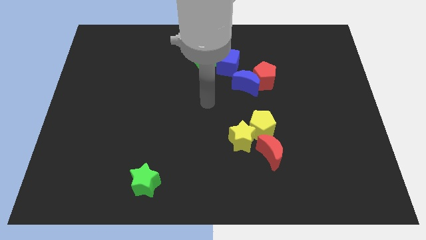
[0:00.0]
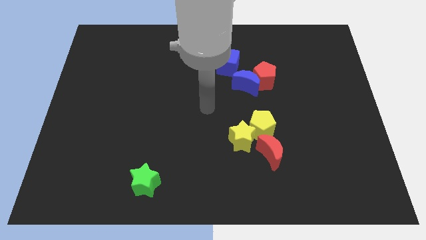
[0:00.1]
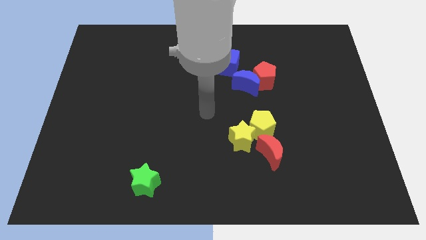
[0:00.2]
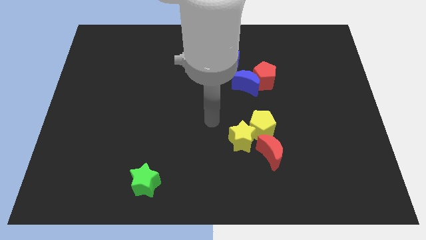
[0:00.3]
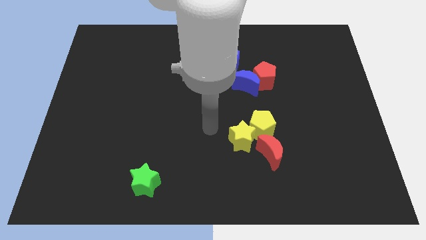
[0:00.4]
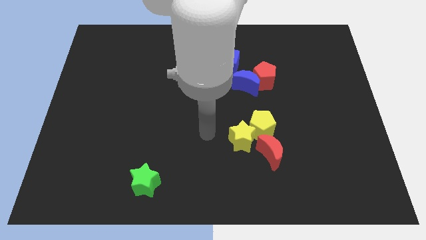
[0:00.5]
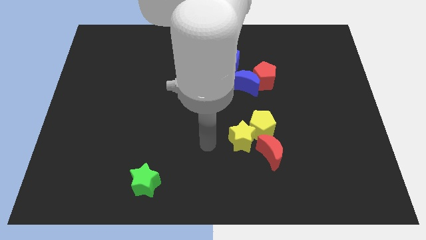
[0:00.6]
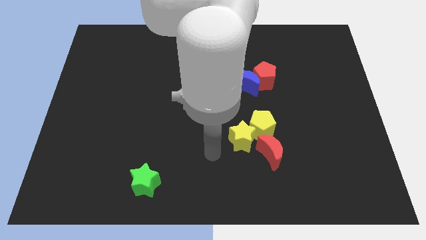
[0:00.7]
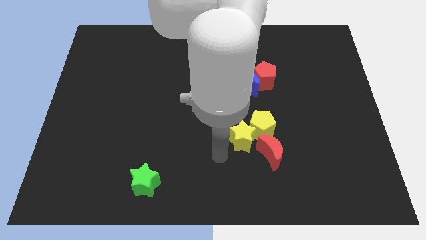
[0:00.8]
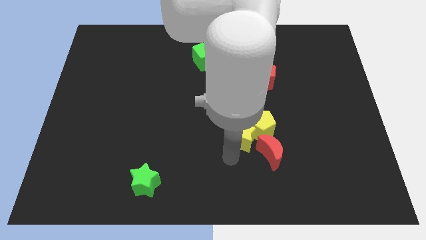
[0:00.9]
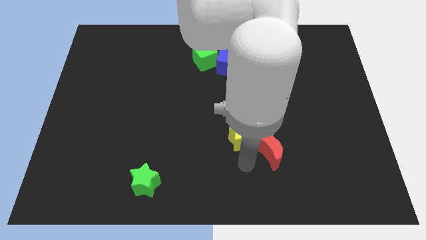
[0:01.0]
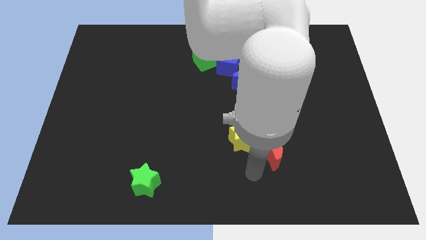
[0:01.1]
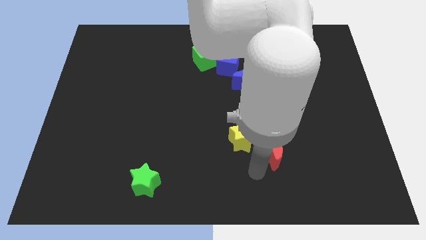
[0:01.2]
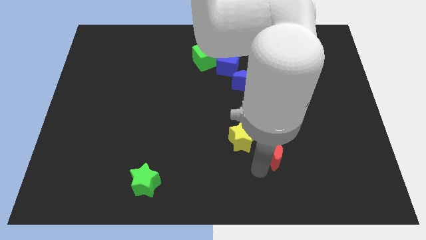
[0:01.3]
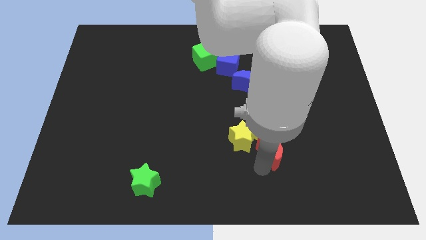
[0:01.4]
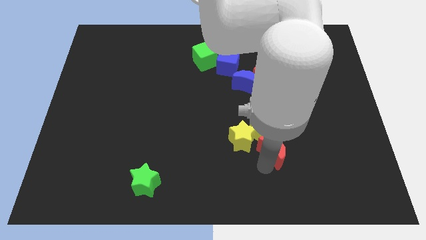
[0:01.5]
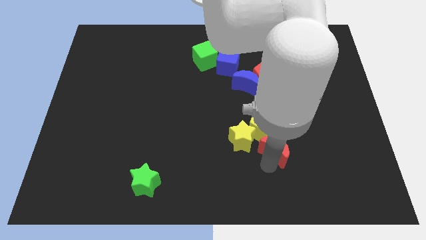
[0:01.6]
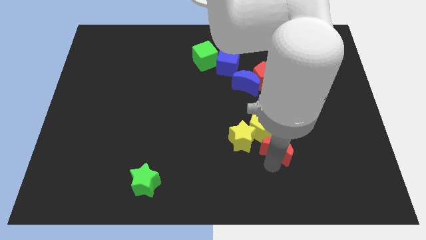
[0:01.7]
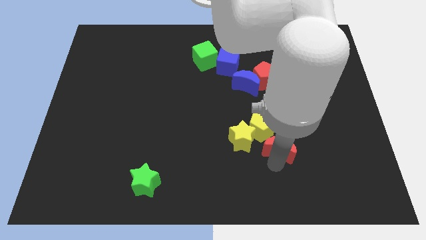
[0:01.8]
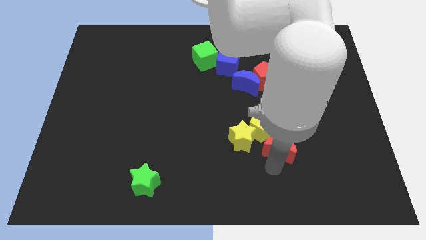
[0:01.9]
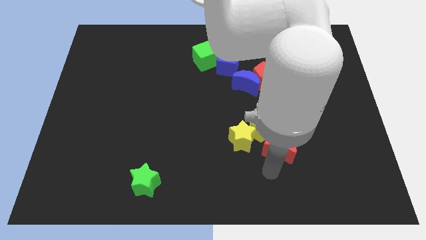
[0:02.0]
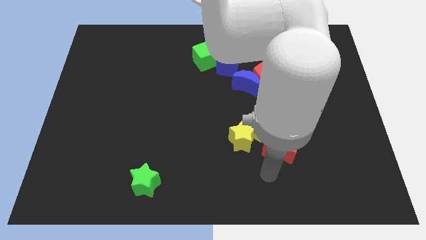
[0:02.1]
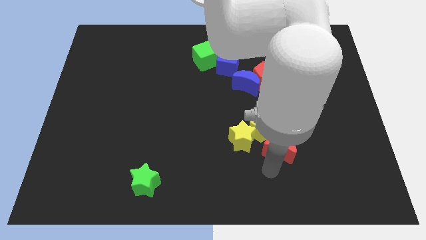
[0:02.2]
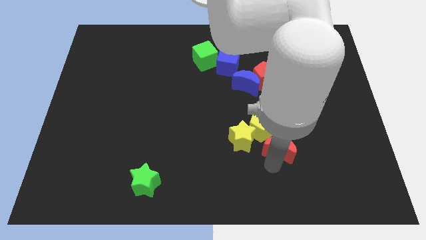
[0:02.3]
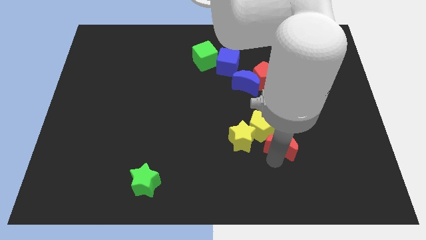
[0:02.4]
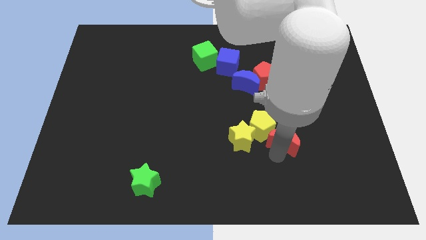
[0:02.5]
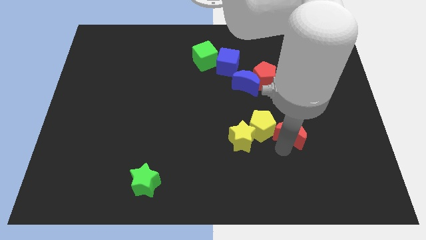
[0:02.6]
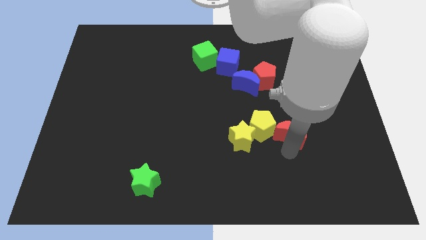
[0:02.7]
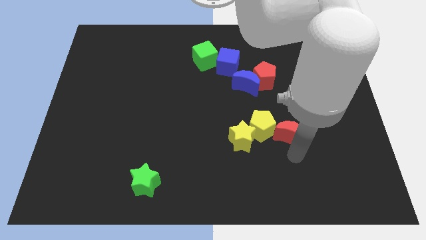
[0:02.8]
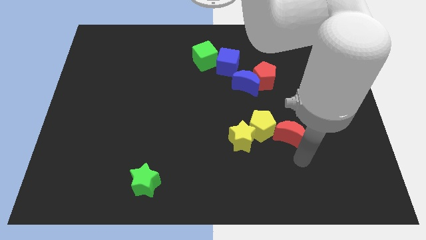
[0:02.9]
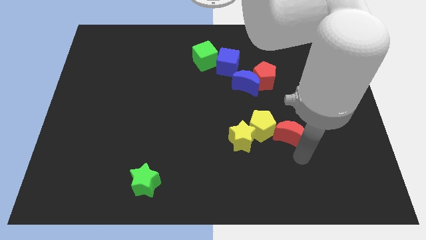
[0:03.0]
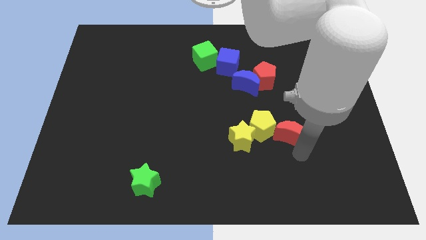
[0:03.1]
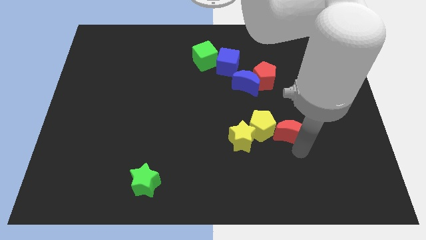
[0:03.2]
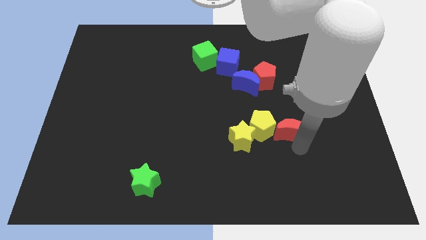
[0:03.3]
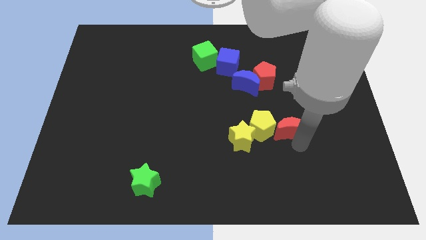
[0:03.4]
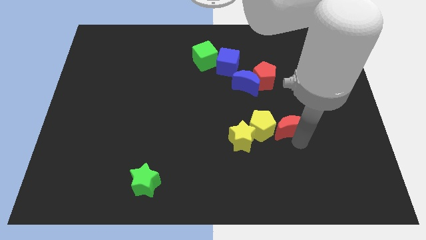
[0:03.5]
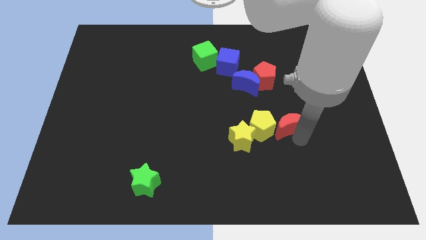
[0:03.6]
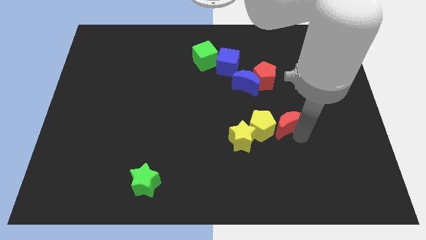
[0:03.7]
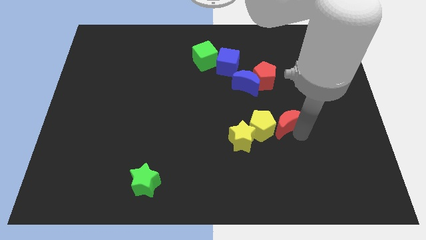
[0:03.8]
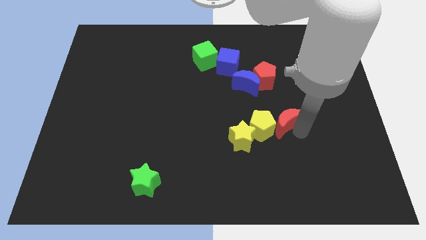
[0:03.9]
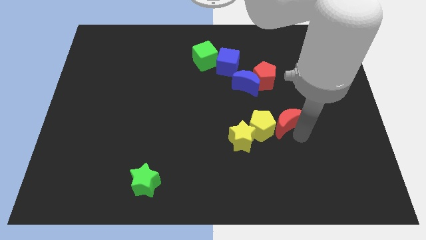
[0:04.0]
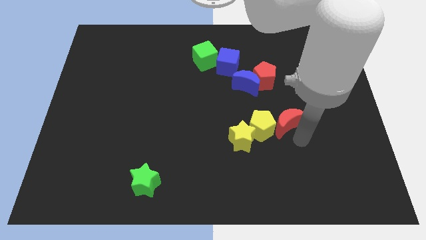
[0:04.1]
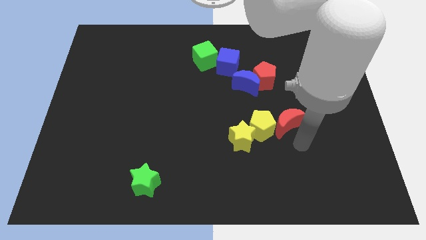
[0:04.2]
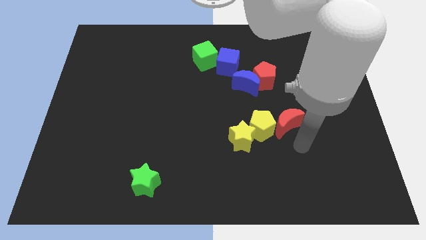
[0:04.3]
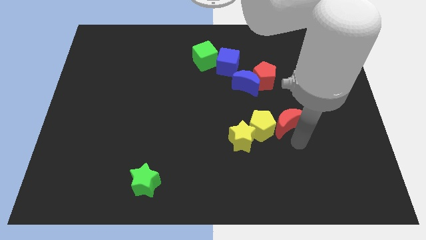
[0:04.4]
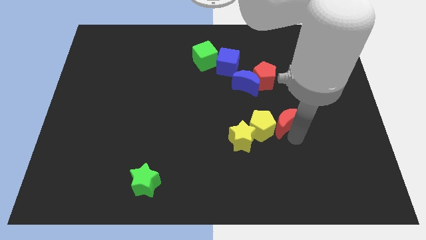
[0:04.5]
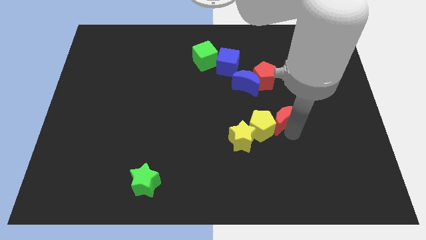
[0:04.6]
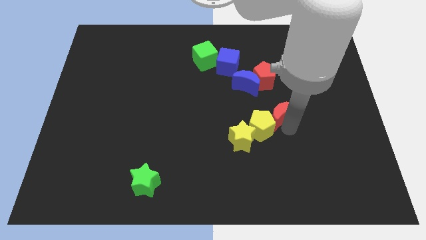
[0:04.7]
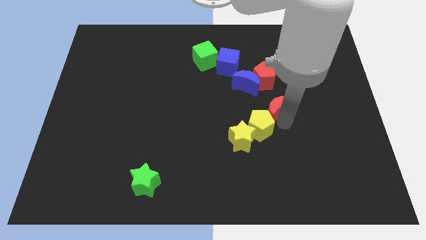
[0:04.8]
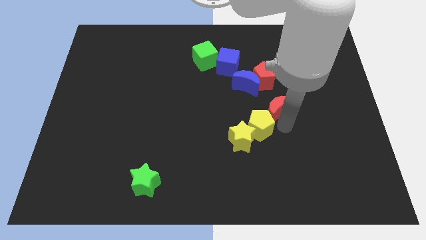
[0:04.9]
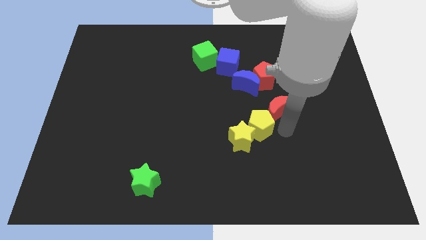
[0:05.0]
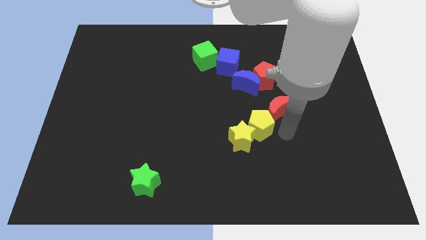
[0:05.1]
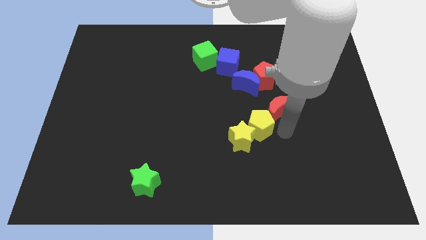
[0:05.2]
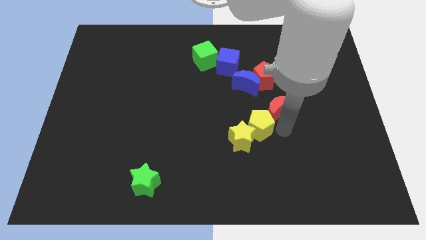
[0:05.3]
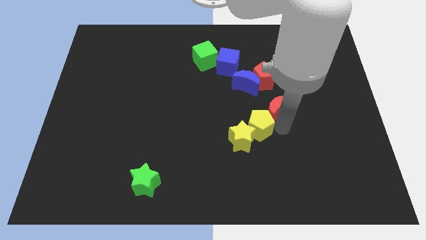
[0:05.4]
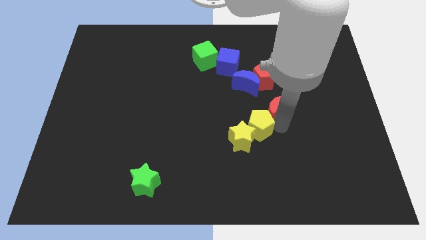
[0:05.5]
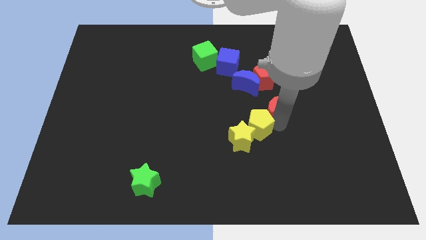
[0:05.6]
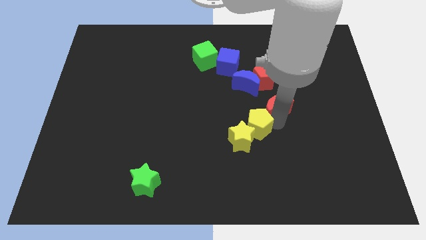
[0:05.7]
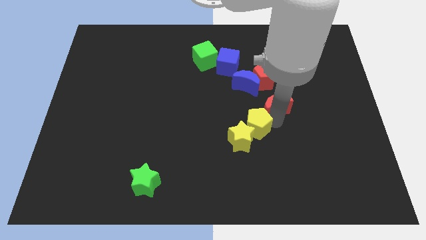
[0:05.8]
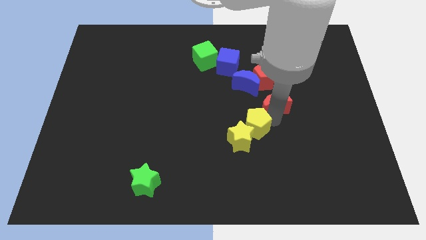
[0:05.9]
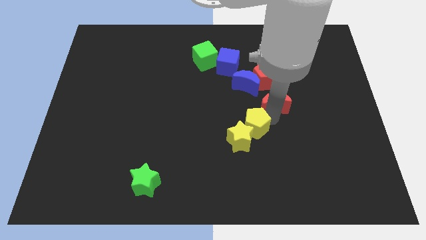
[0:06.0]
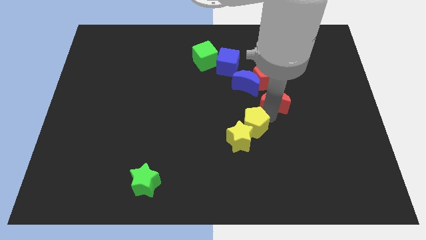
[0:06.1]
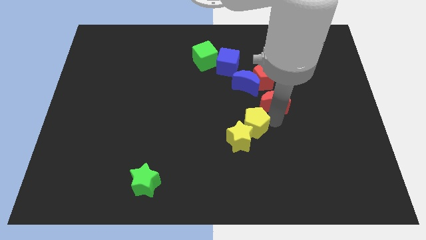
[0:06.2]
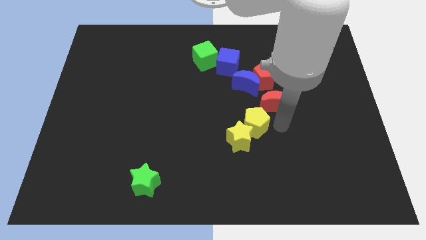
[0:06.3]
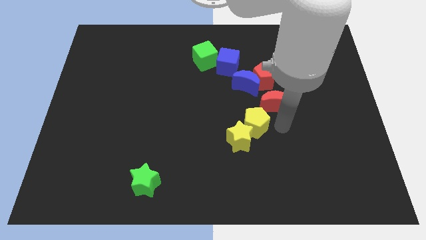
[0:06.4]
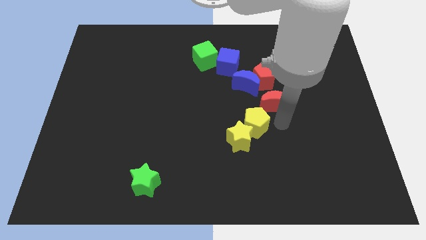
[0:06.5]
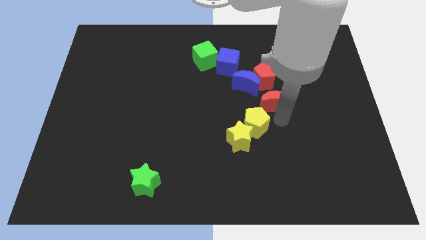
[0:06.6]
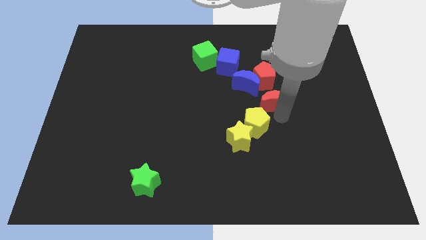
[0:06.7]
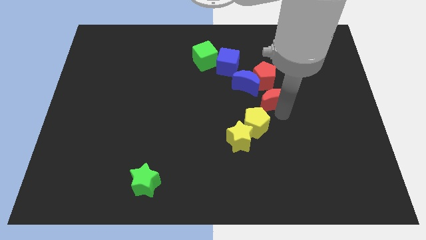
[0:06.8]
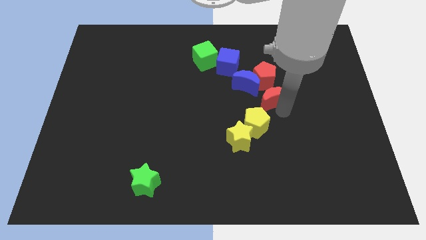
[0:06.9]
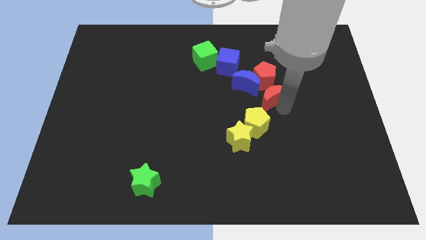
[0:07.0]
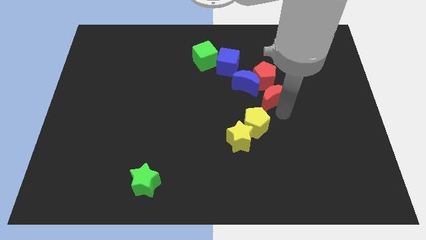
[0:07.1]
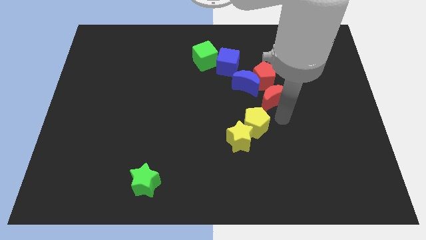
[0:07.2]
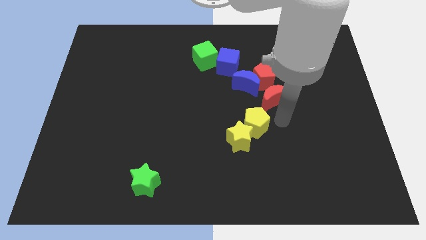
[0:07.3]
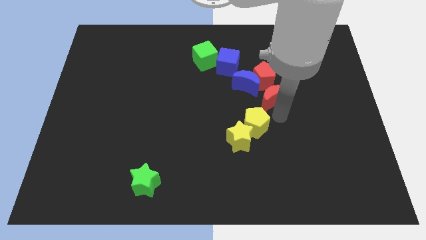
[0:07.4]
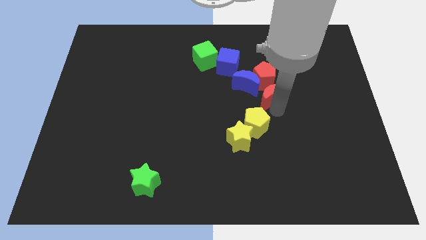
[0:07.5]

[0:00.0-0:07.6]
slide the red moon to the red pentagon
